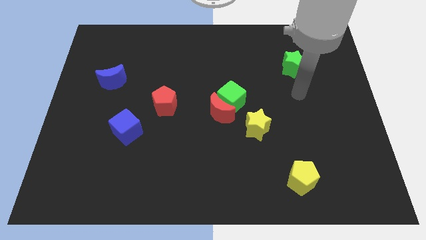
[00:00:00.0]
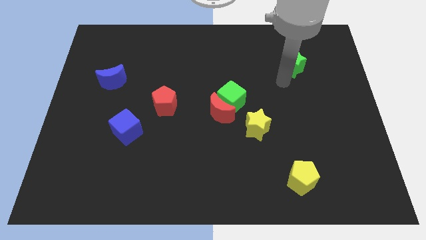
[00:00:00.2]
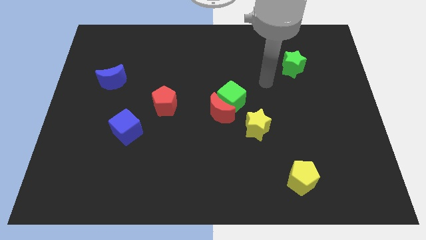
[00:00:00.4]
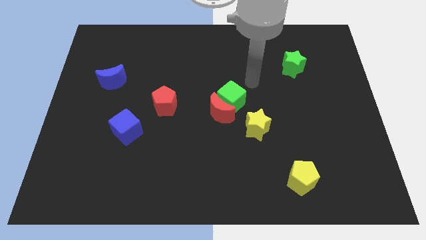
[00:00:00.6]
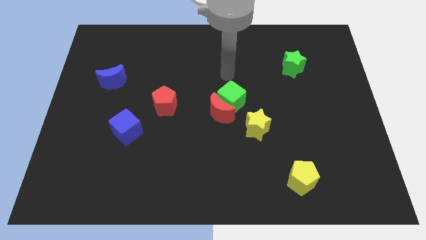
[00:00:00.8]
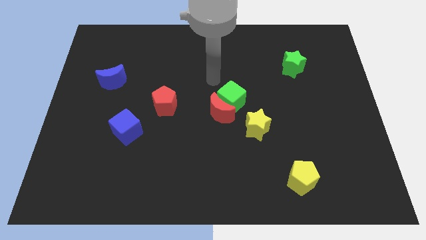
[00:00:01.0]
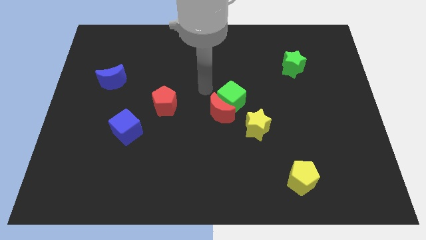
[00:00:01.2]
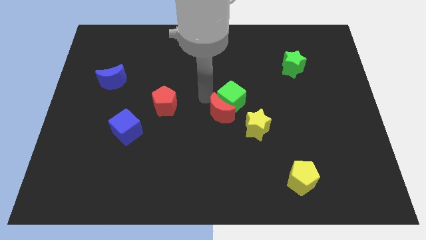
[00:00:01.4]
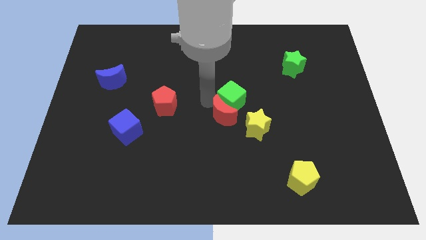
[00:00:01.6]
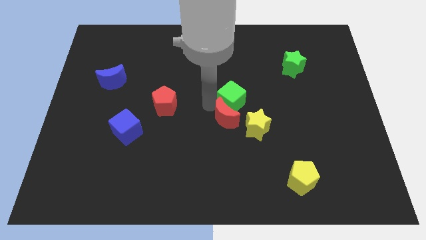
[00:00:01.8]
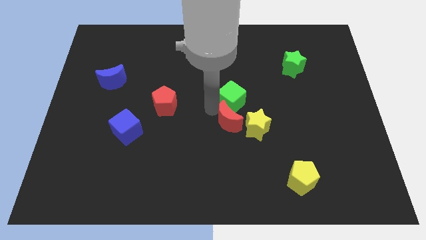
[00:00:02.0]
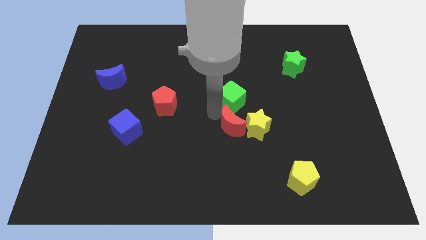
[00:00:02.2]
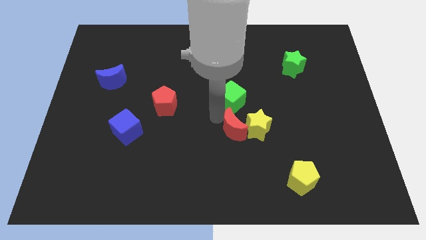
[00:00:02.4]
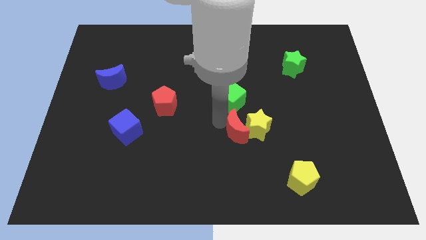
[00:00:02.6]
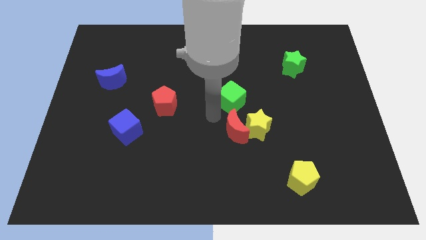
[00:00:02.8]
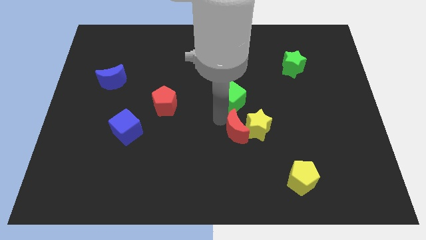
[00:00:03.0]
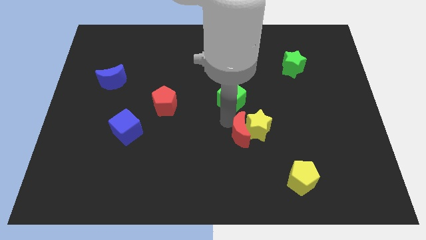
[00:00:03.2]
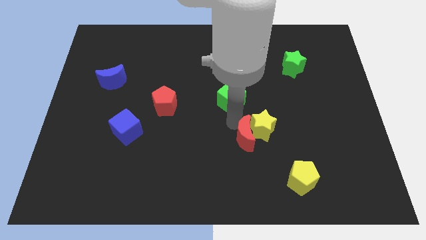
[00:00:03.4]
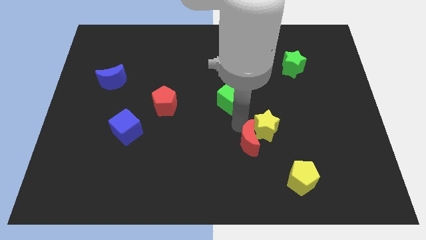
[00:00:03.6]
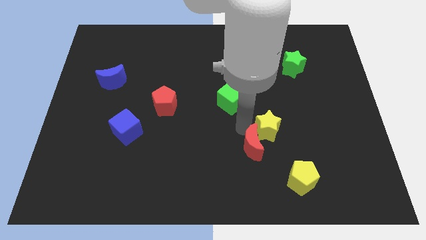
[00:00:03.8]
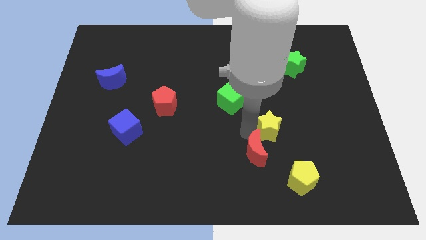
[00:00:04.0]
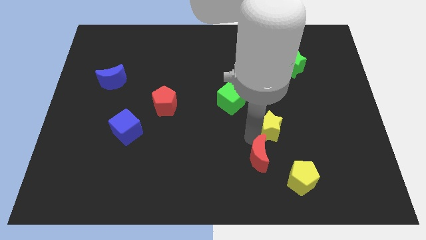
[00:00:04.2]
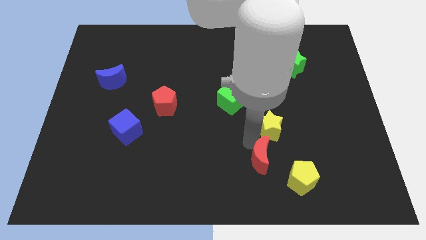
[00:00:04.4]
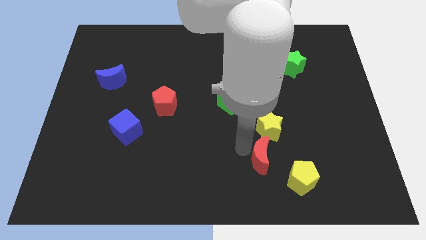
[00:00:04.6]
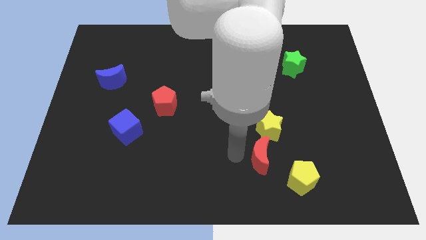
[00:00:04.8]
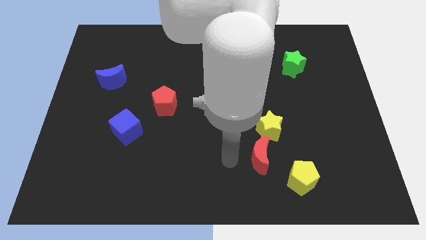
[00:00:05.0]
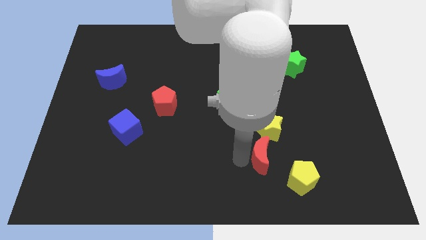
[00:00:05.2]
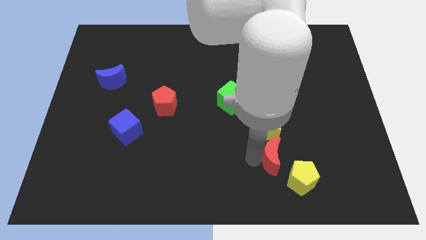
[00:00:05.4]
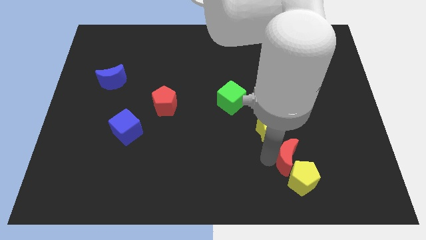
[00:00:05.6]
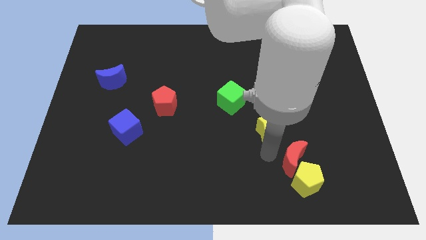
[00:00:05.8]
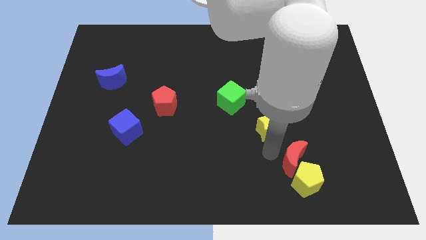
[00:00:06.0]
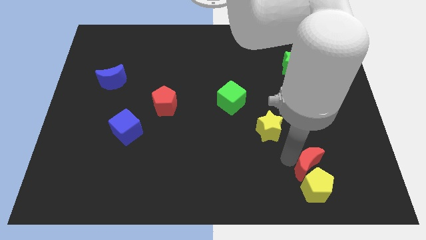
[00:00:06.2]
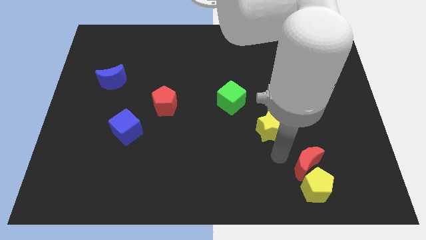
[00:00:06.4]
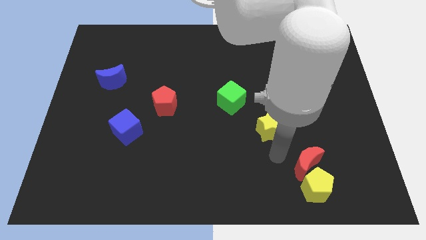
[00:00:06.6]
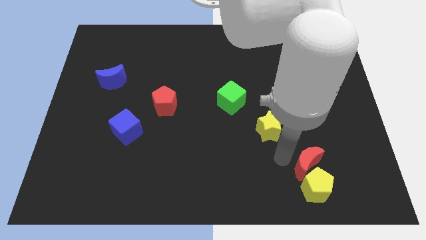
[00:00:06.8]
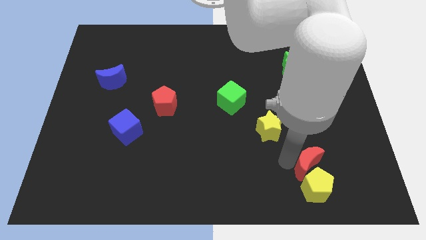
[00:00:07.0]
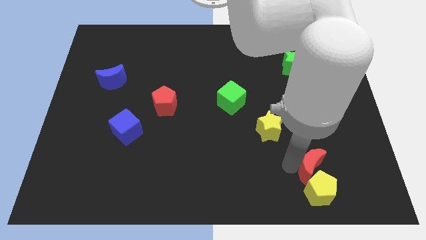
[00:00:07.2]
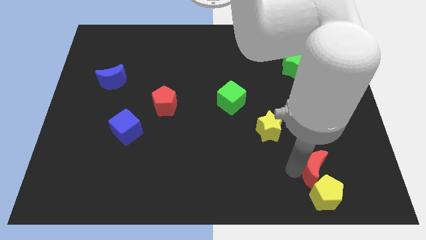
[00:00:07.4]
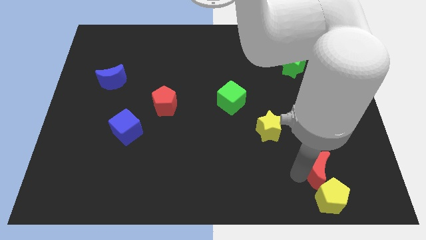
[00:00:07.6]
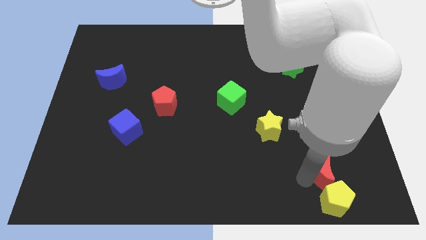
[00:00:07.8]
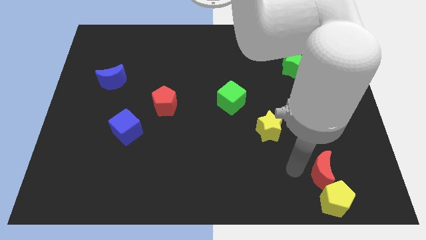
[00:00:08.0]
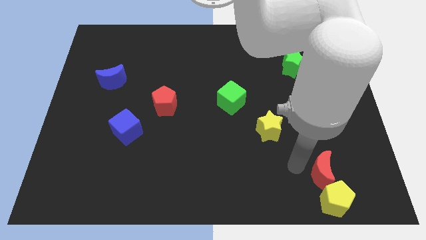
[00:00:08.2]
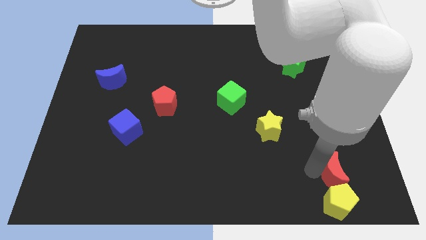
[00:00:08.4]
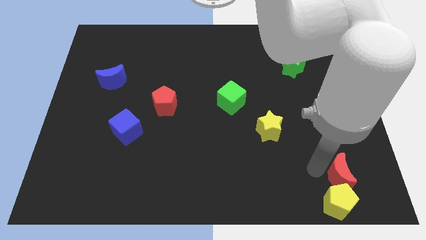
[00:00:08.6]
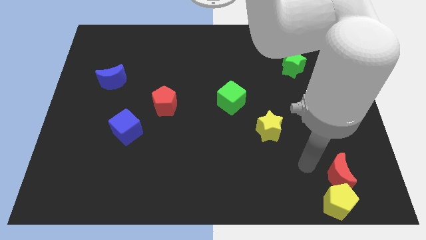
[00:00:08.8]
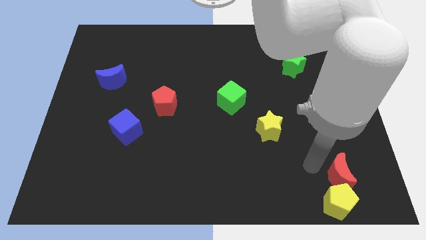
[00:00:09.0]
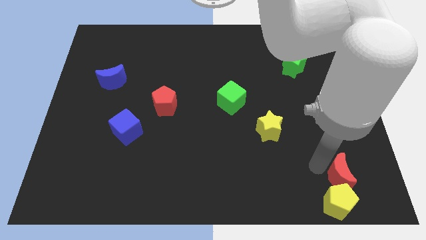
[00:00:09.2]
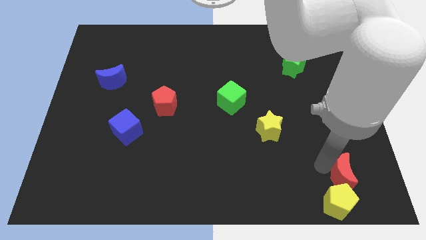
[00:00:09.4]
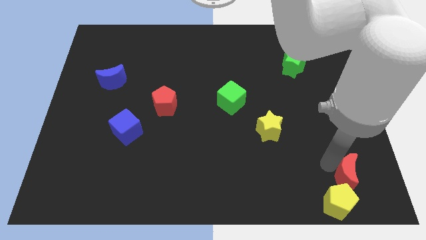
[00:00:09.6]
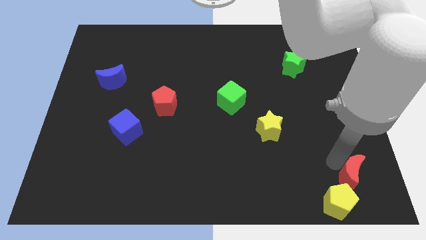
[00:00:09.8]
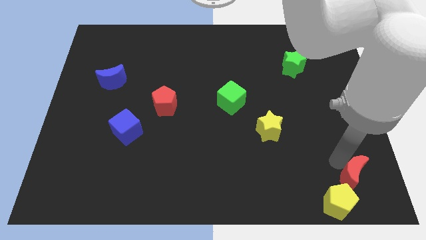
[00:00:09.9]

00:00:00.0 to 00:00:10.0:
move the red moon to the lower right corner

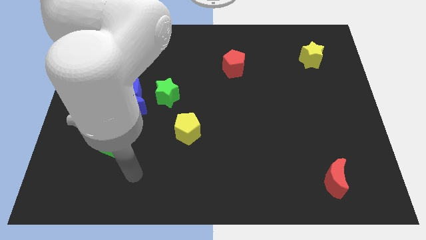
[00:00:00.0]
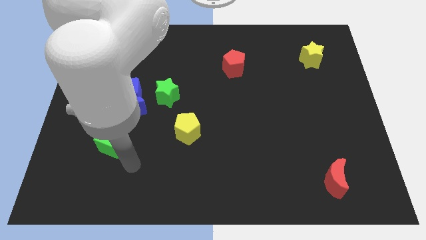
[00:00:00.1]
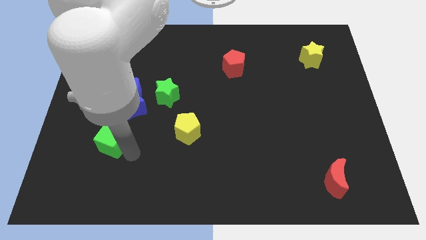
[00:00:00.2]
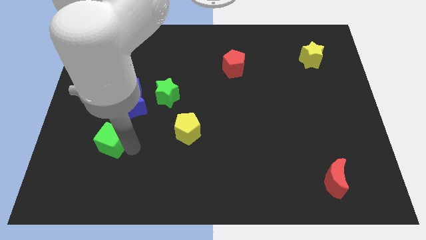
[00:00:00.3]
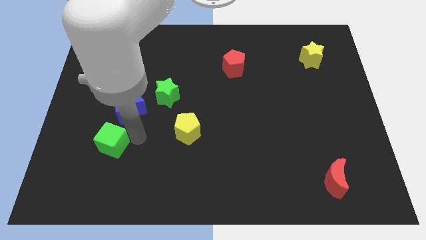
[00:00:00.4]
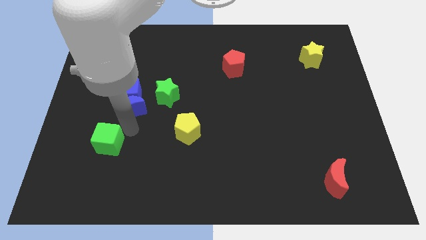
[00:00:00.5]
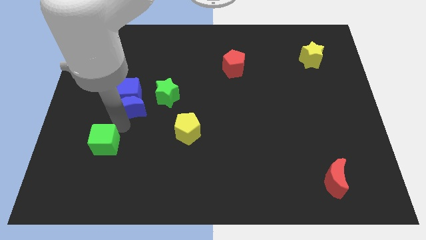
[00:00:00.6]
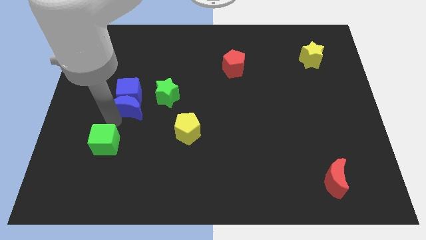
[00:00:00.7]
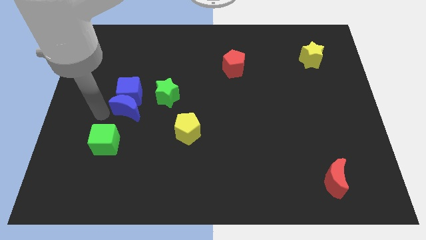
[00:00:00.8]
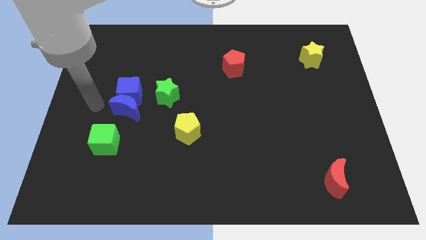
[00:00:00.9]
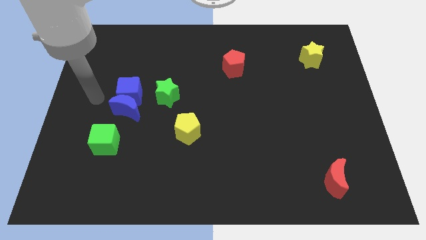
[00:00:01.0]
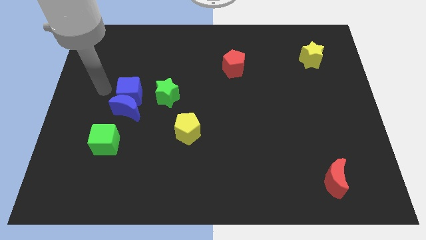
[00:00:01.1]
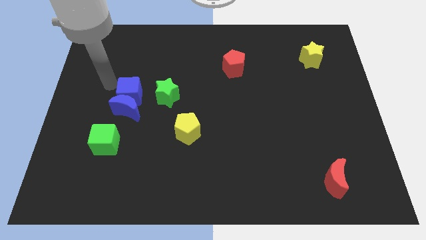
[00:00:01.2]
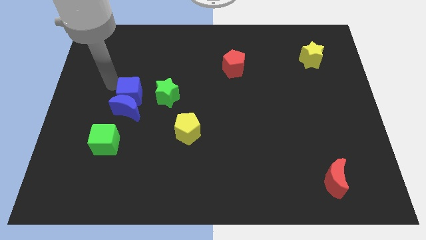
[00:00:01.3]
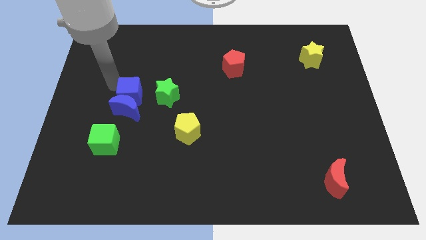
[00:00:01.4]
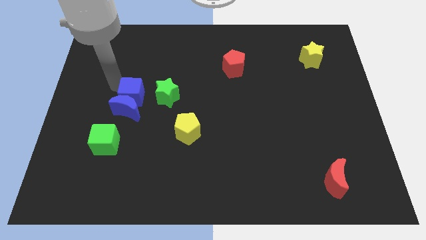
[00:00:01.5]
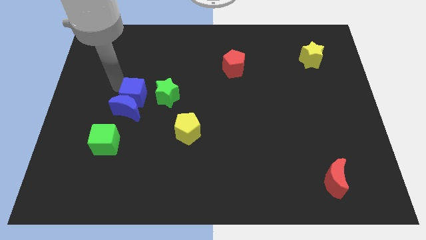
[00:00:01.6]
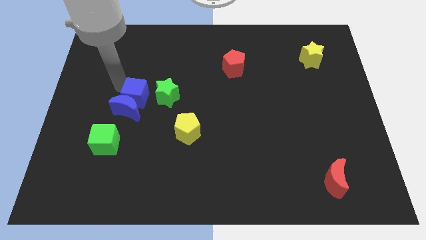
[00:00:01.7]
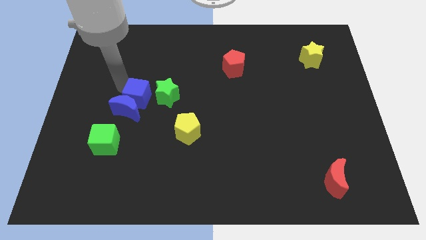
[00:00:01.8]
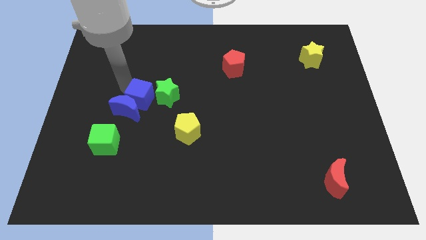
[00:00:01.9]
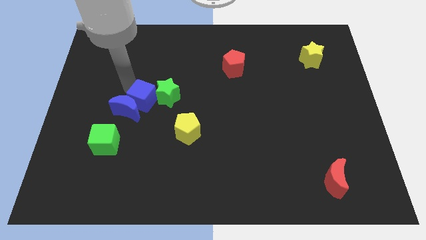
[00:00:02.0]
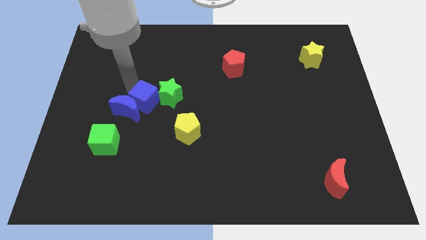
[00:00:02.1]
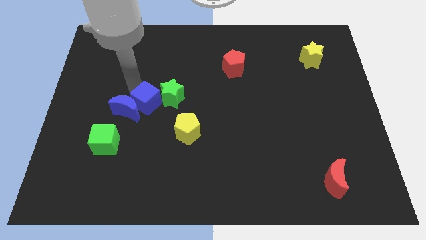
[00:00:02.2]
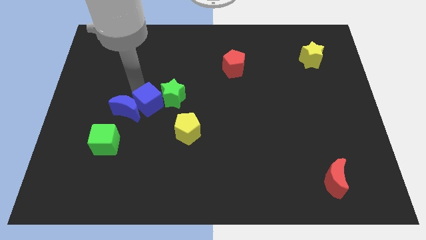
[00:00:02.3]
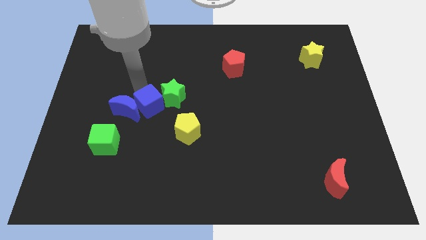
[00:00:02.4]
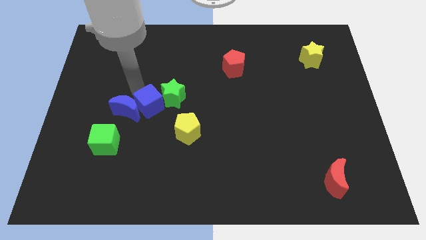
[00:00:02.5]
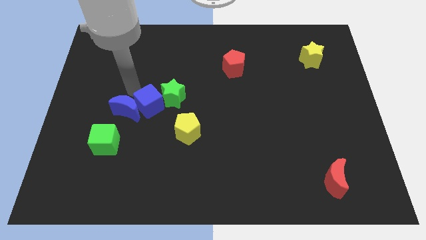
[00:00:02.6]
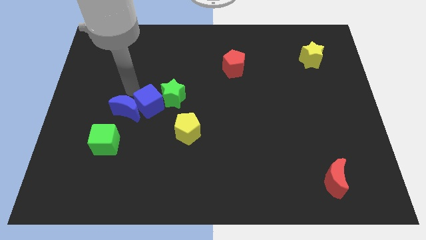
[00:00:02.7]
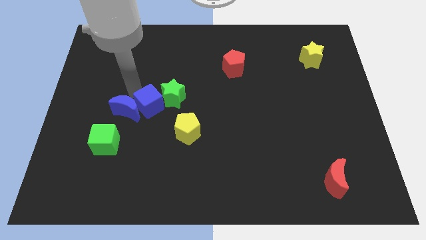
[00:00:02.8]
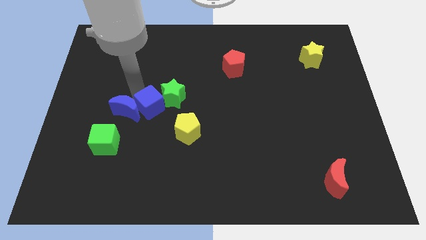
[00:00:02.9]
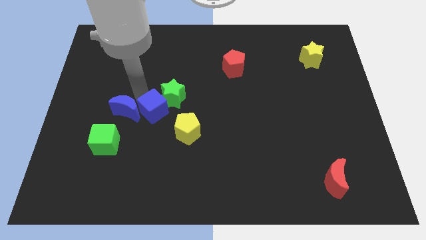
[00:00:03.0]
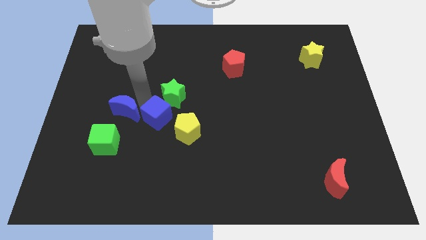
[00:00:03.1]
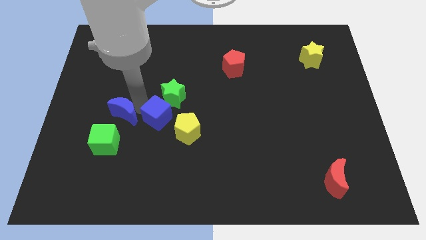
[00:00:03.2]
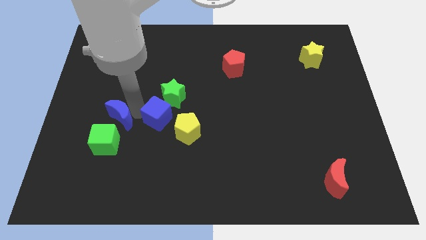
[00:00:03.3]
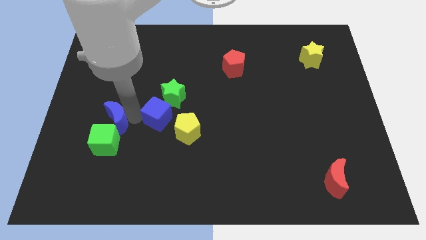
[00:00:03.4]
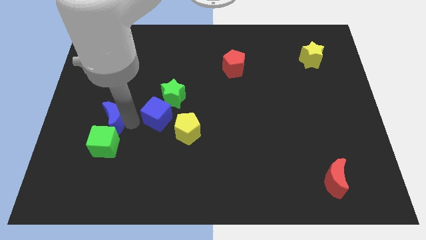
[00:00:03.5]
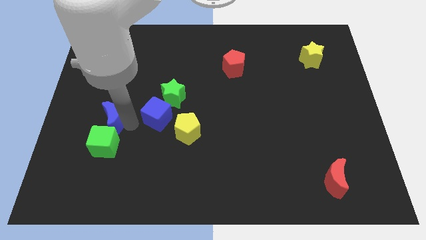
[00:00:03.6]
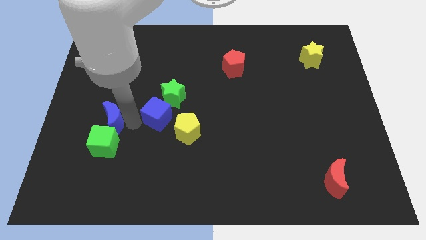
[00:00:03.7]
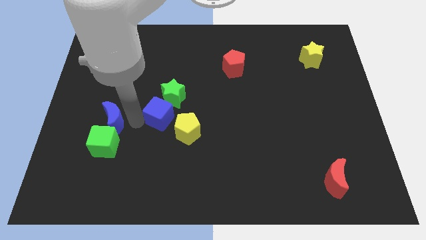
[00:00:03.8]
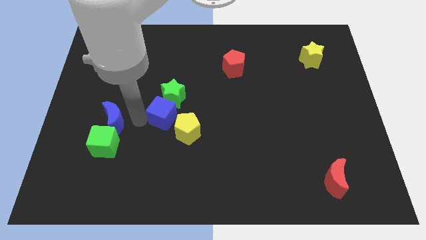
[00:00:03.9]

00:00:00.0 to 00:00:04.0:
move the blue cube to the middle
